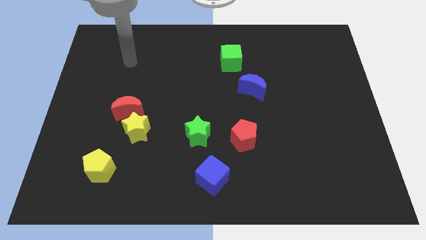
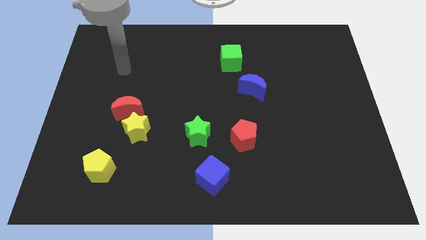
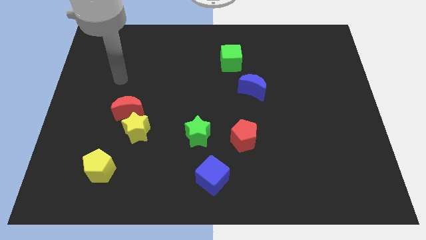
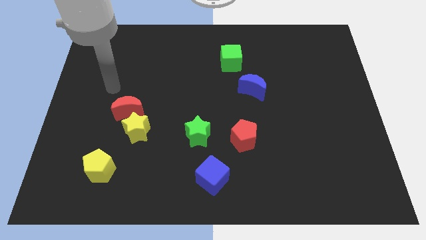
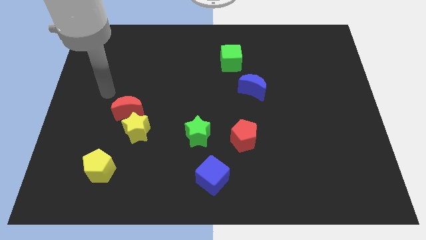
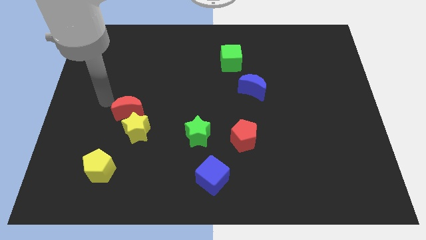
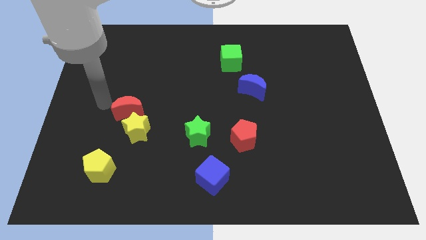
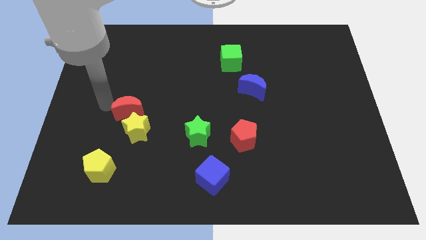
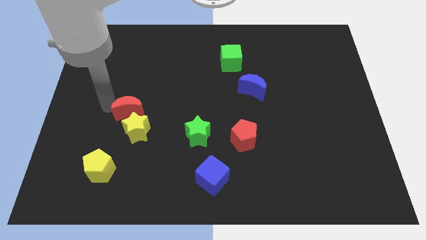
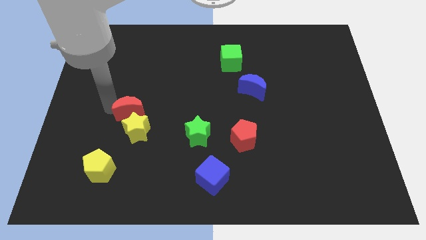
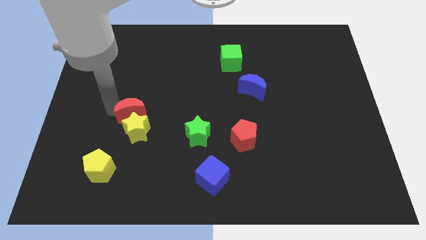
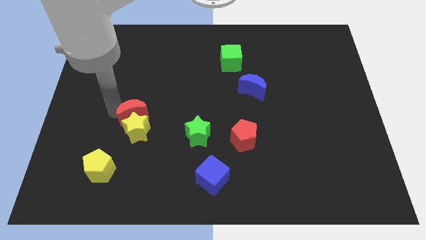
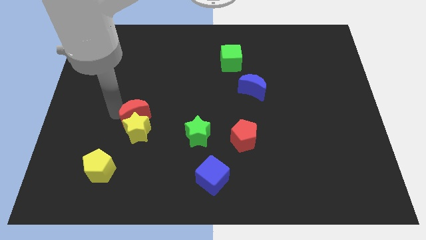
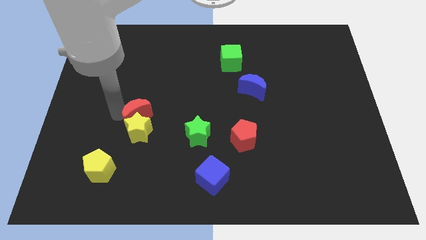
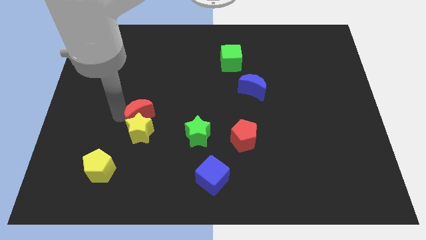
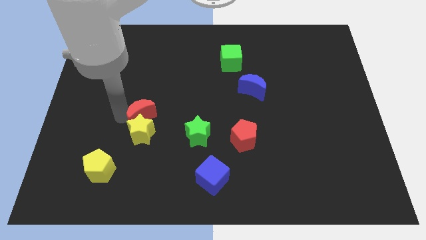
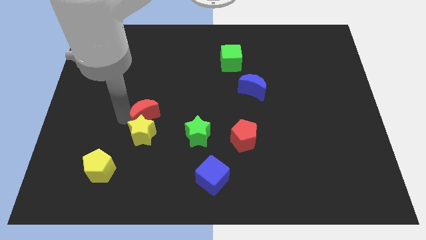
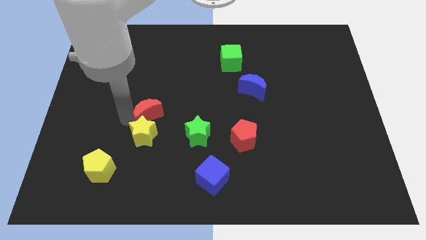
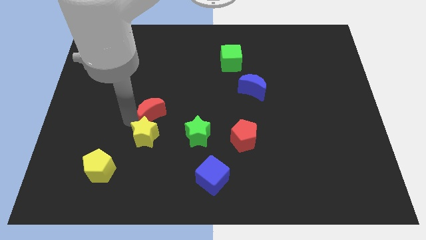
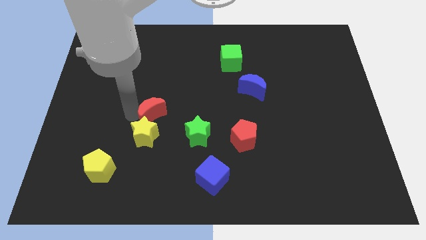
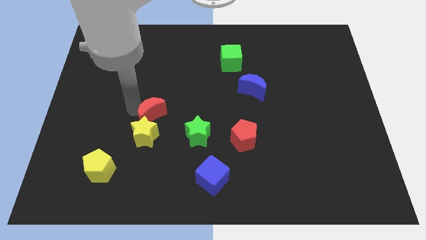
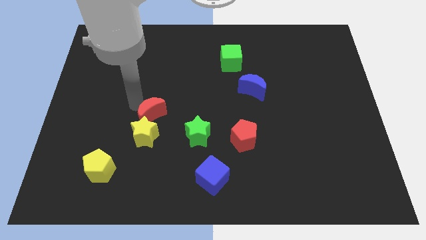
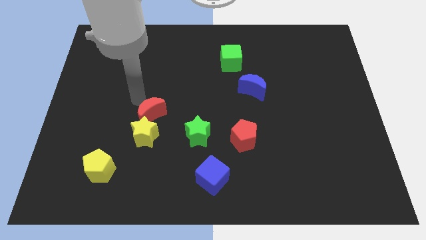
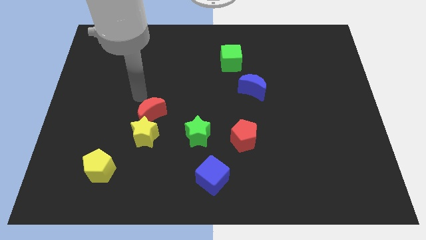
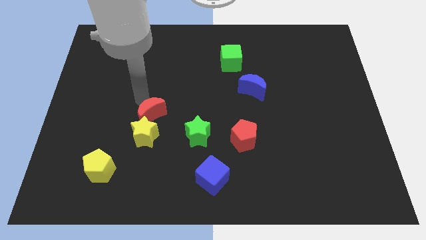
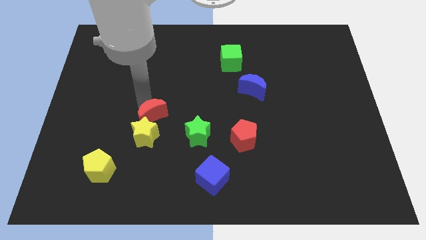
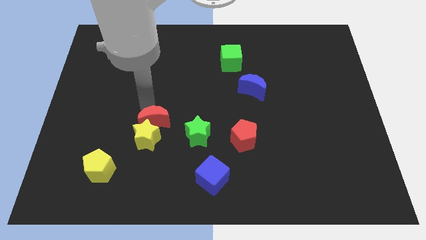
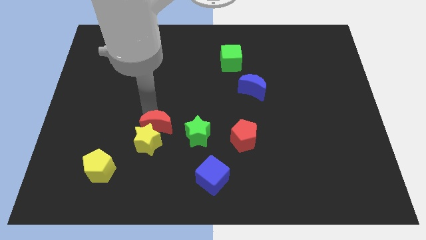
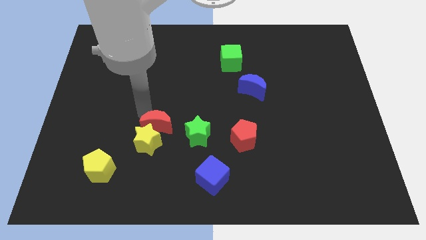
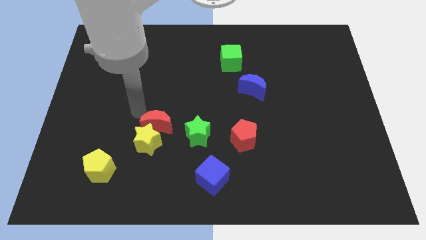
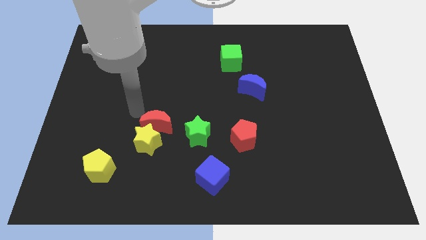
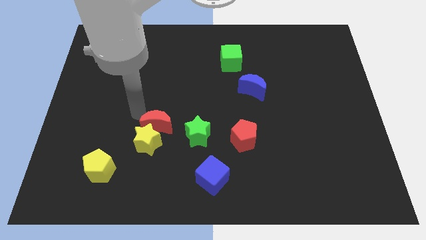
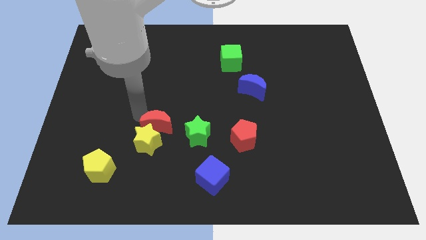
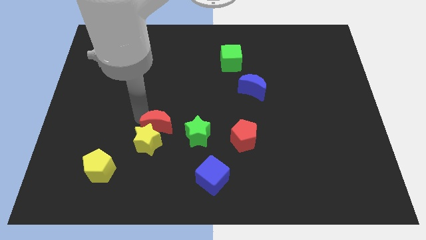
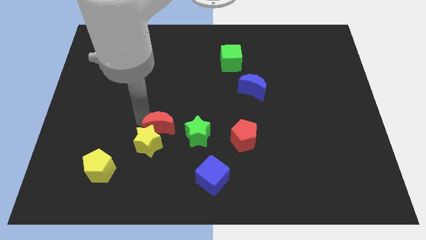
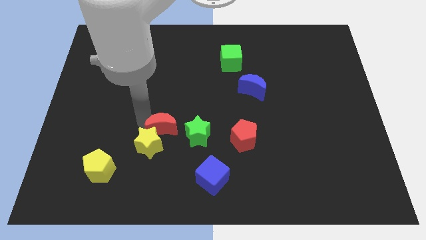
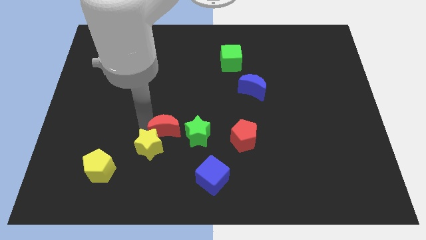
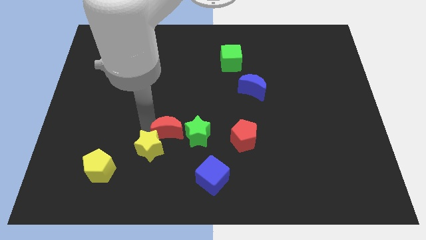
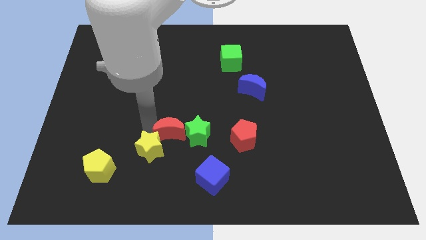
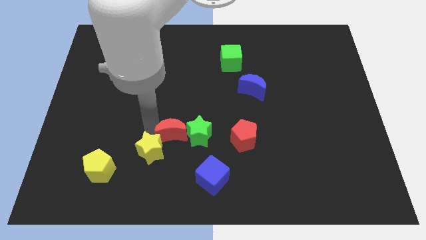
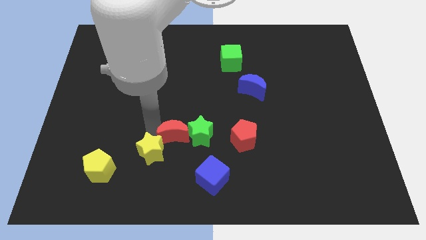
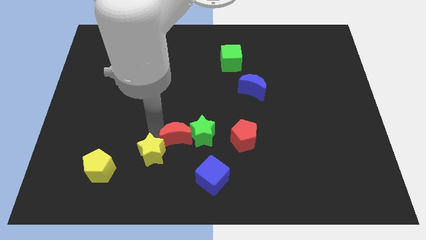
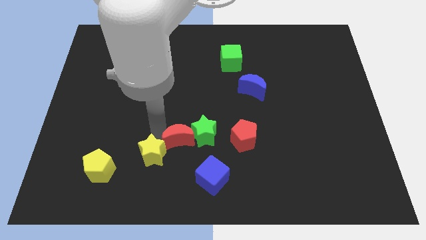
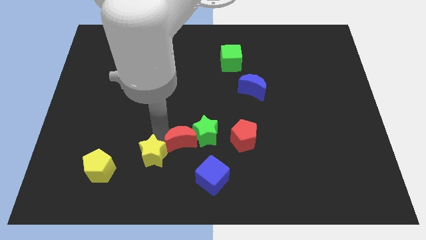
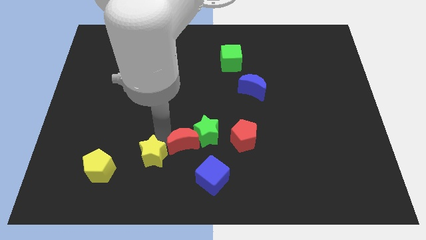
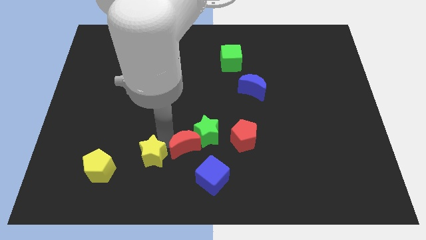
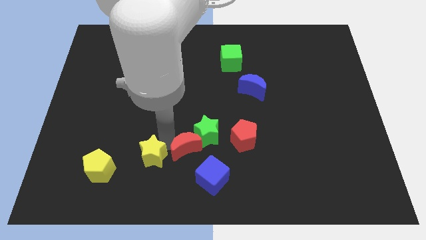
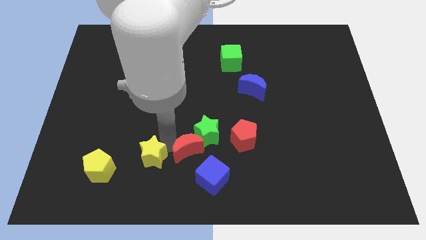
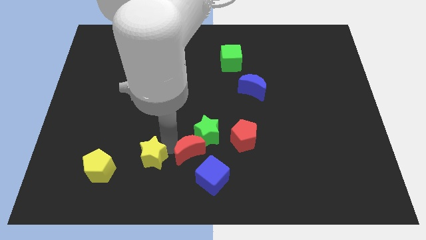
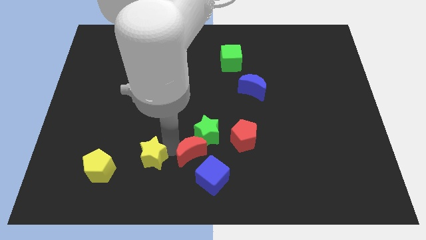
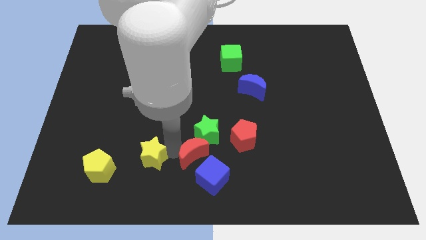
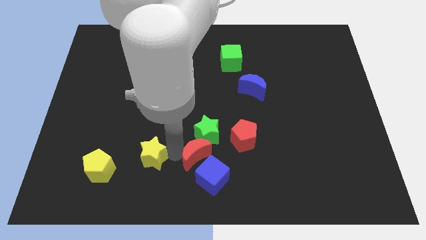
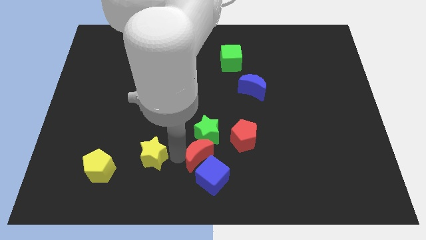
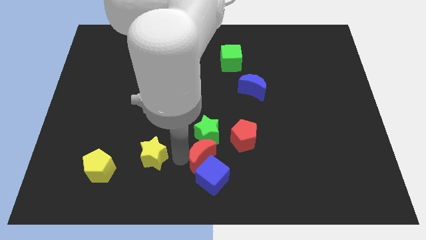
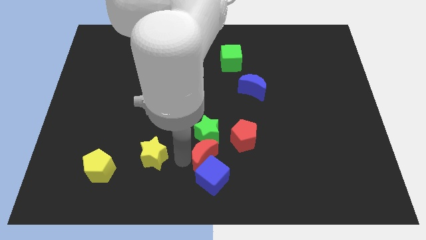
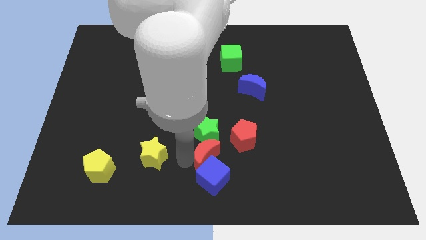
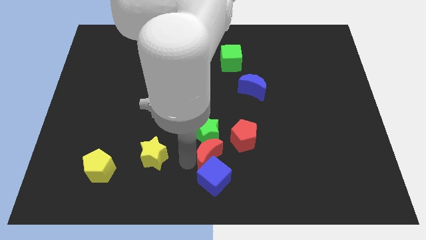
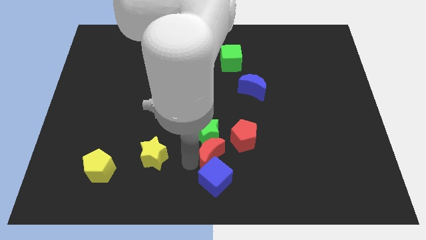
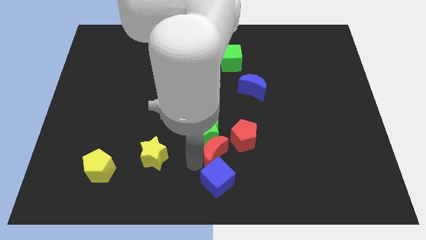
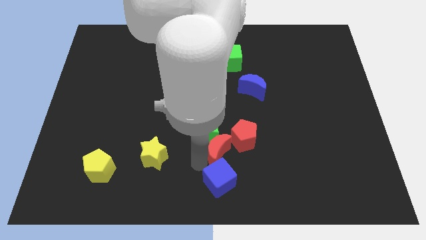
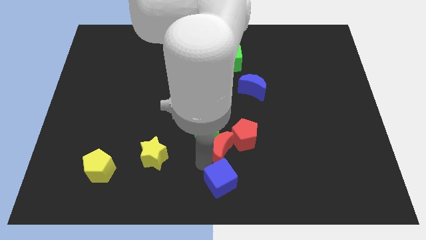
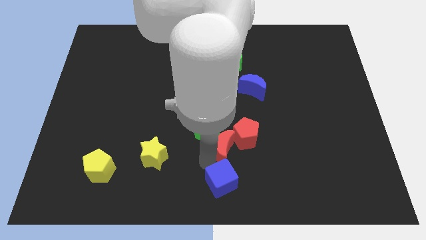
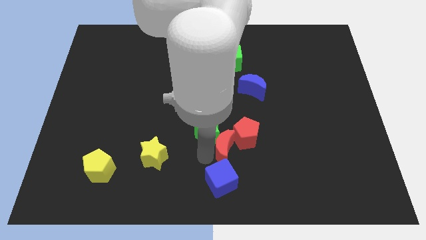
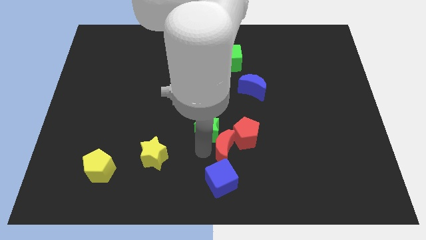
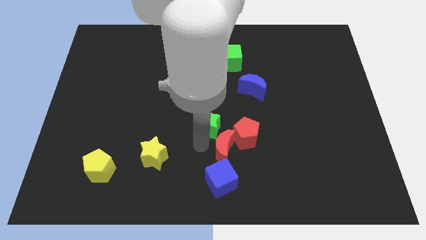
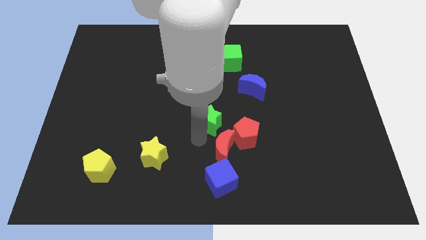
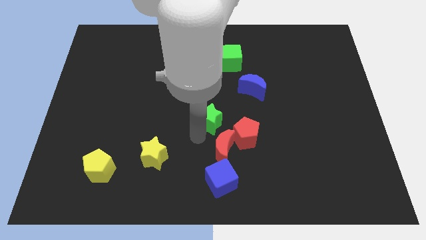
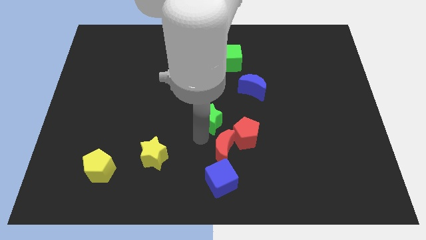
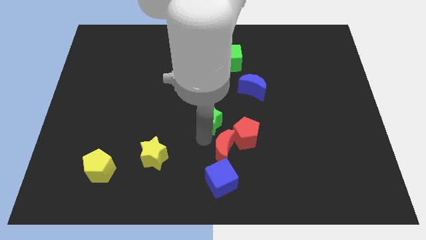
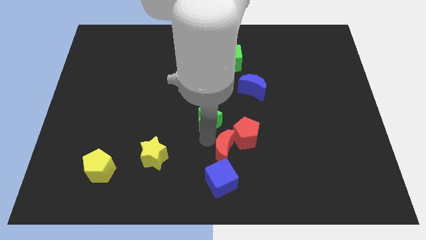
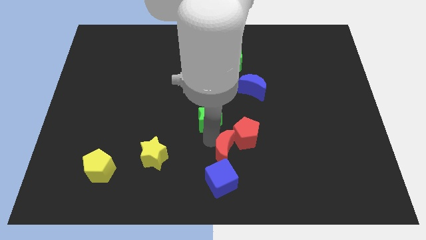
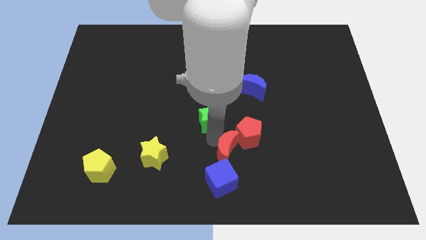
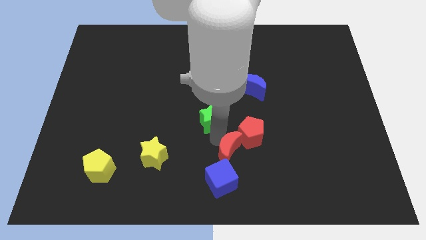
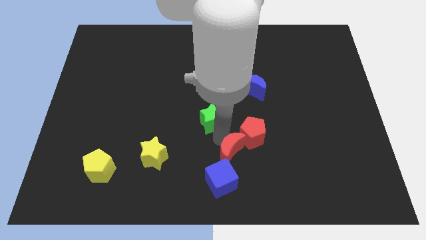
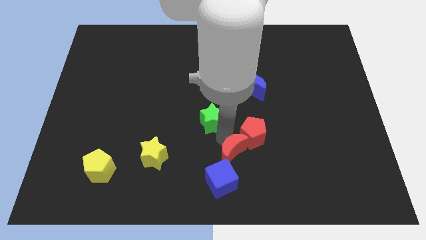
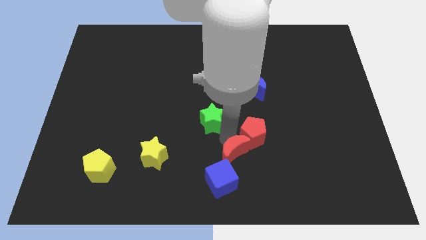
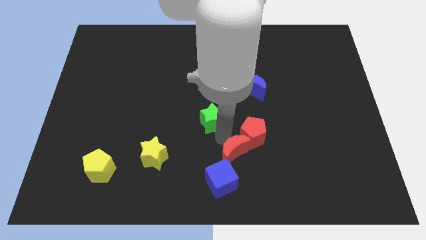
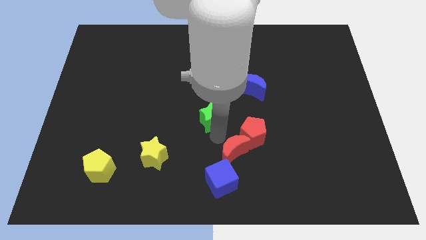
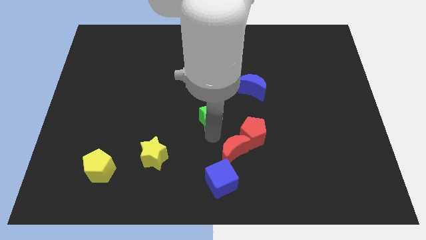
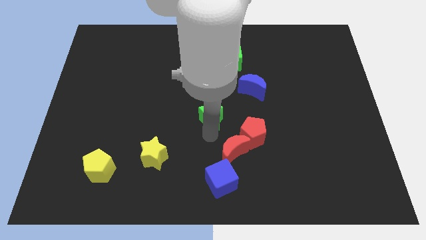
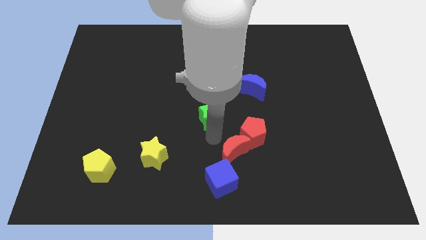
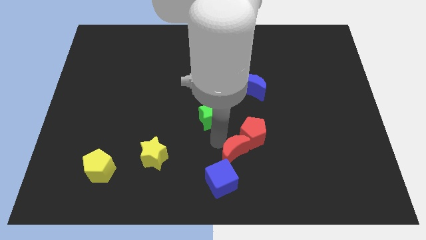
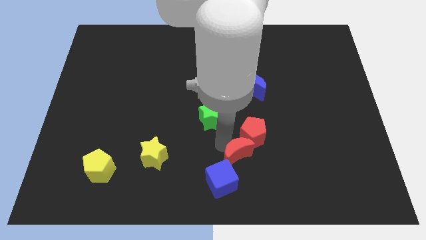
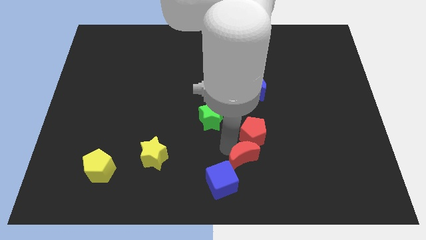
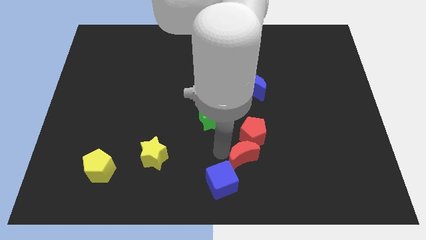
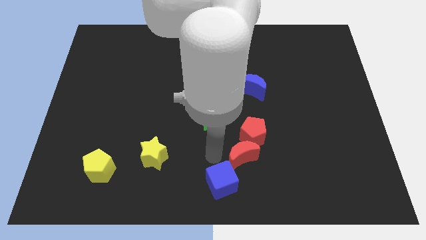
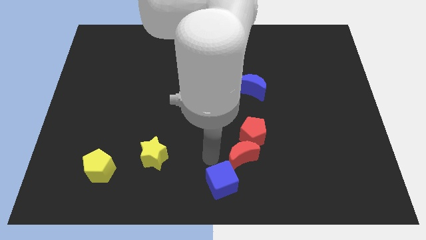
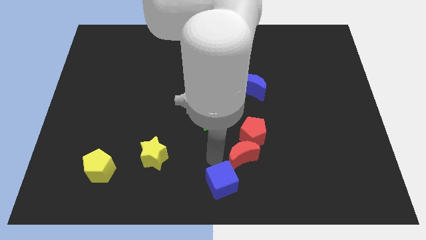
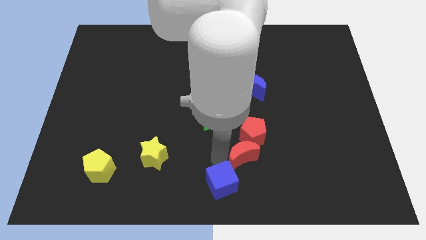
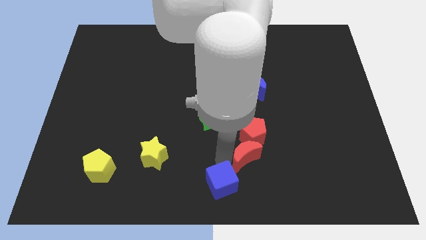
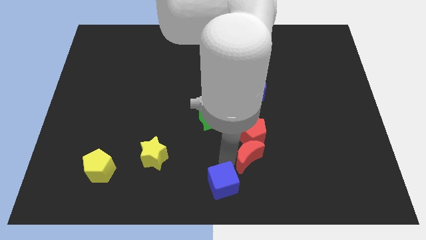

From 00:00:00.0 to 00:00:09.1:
move the red moon to the bottom right of the red pentagon
